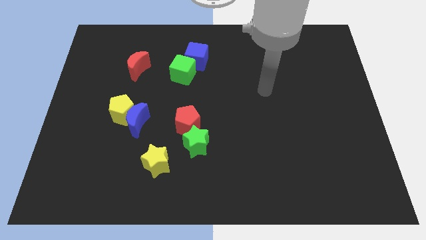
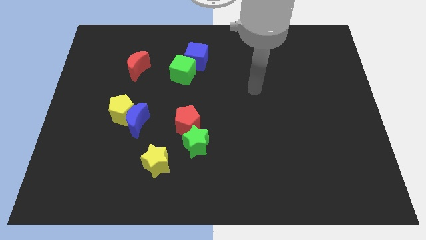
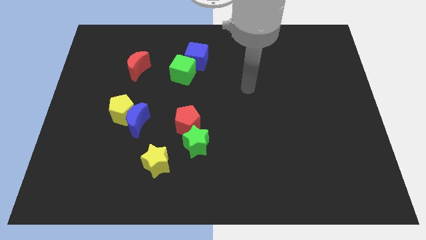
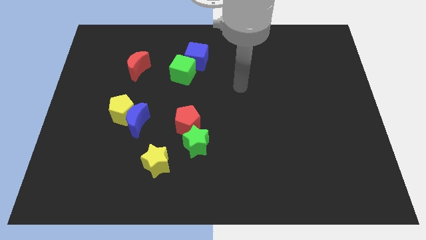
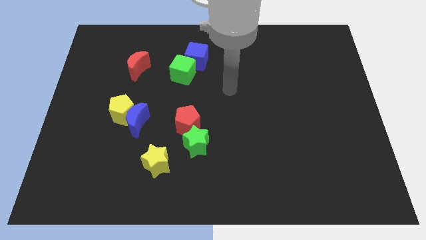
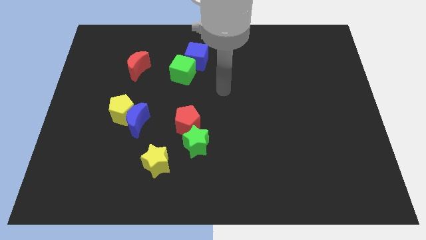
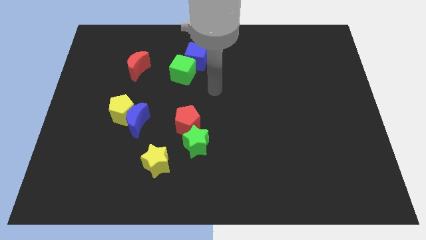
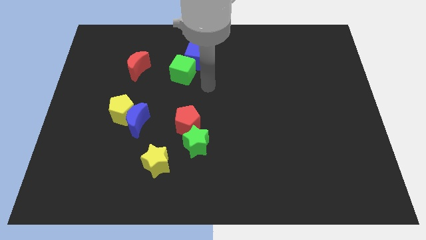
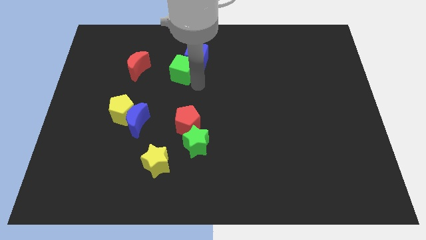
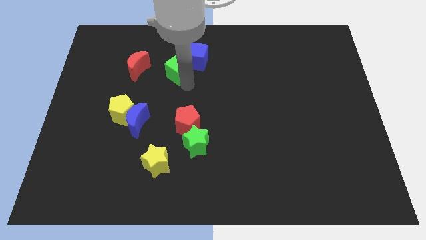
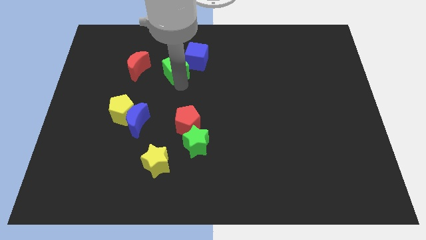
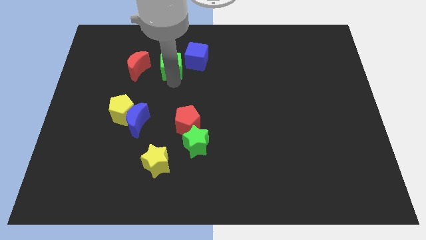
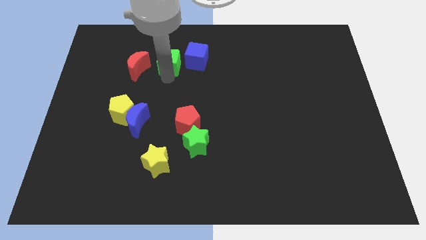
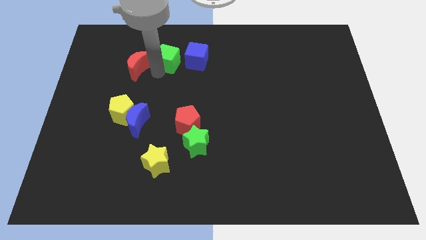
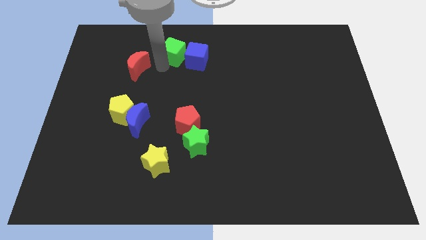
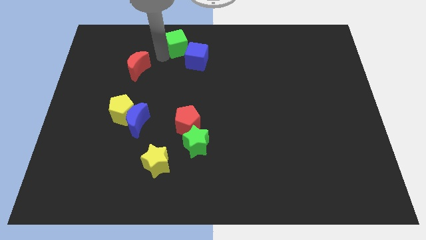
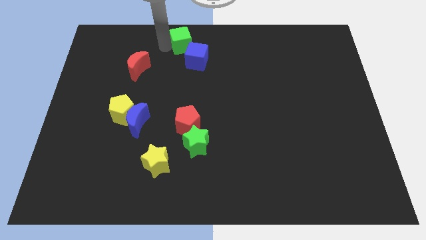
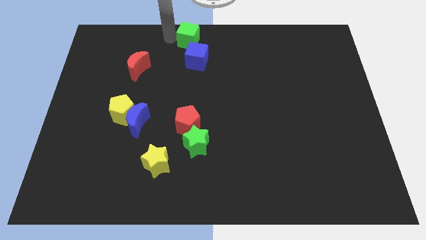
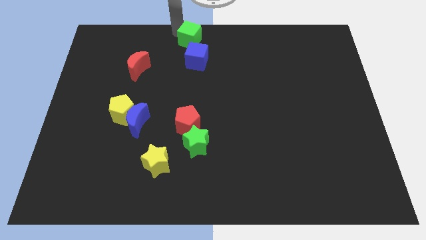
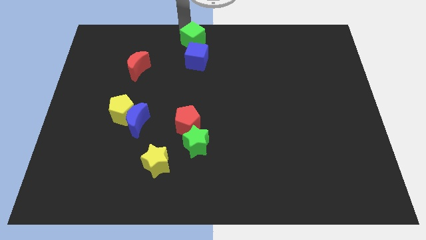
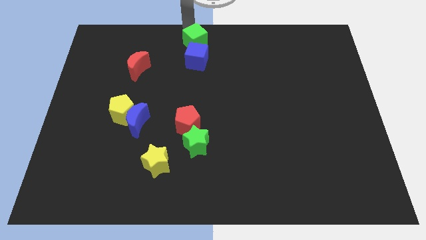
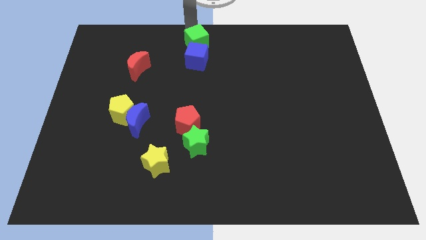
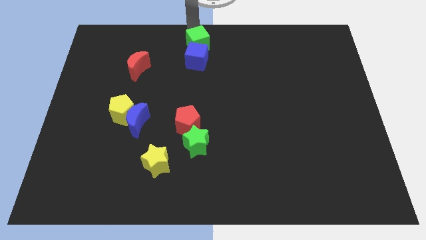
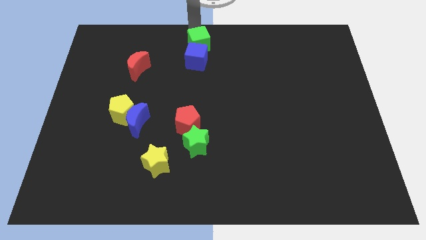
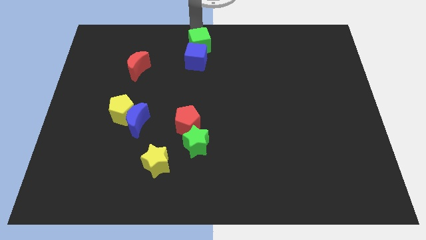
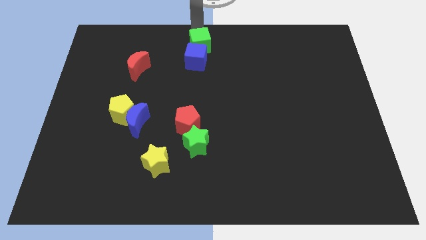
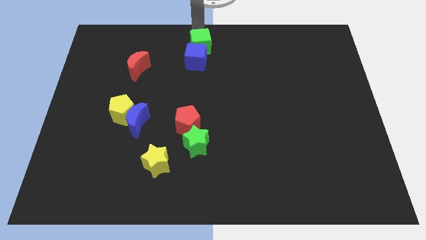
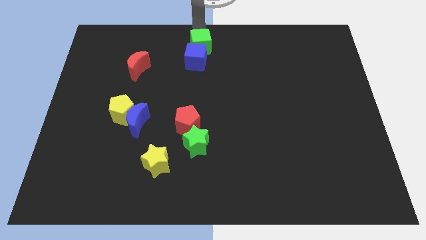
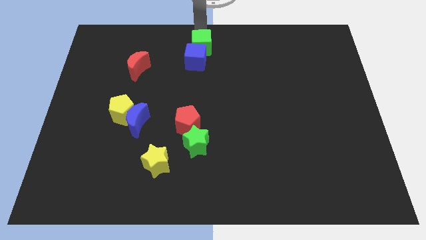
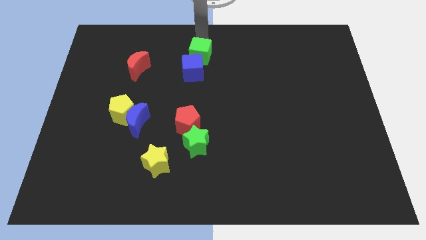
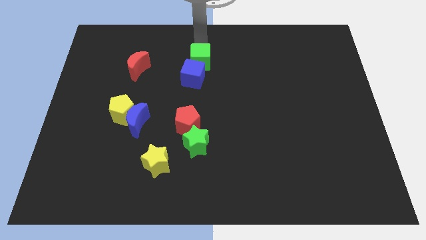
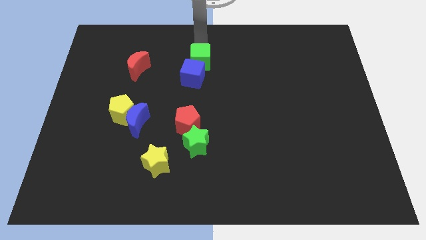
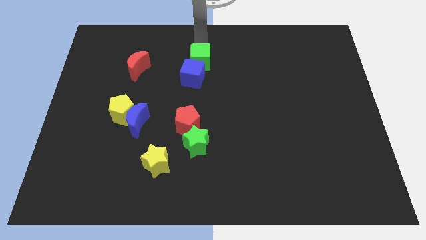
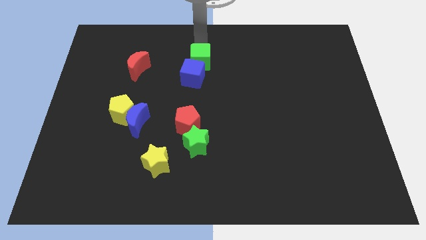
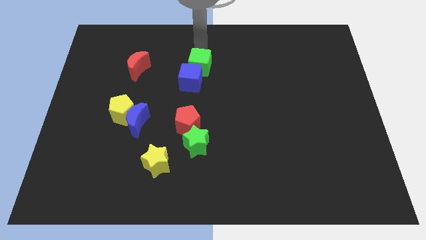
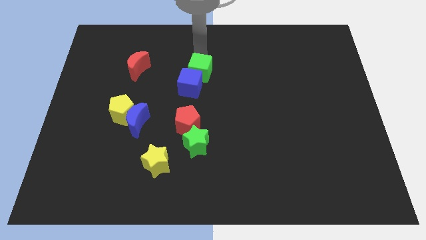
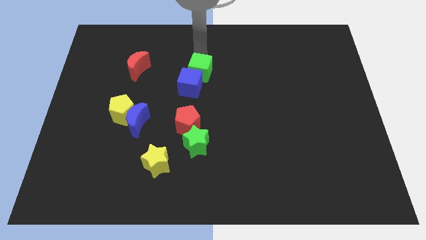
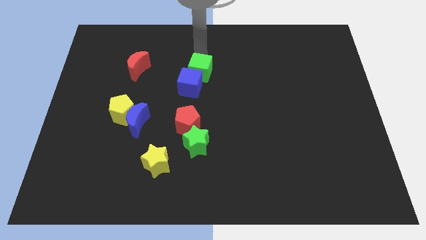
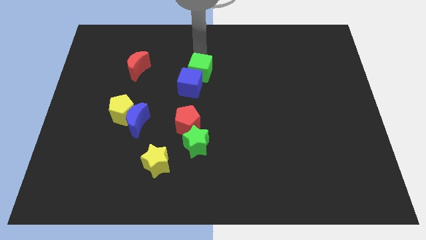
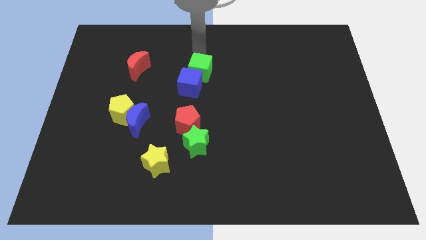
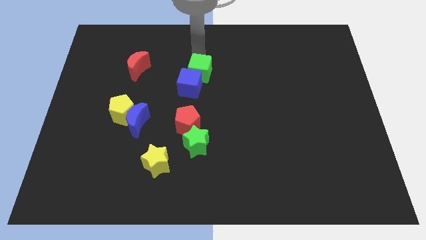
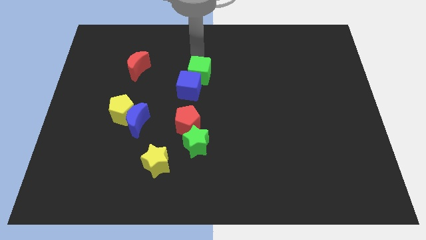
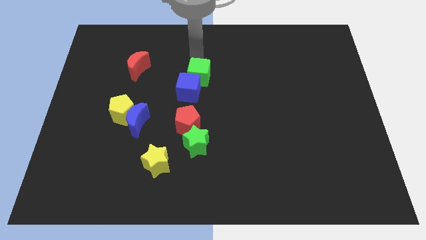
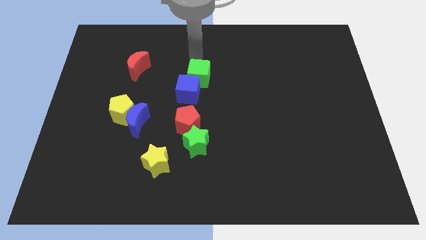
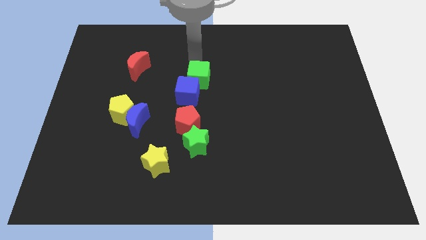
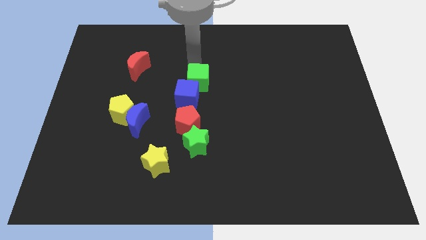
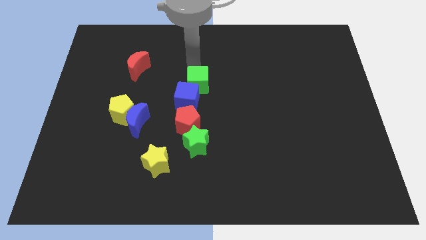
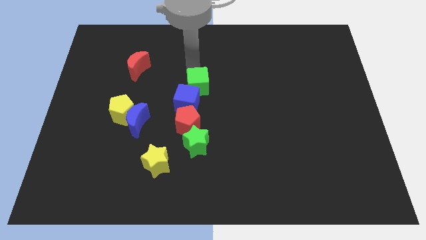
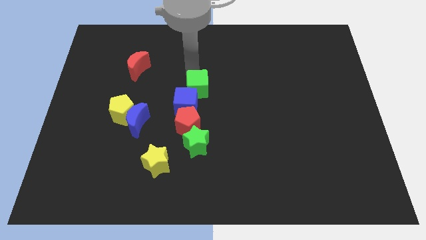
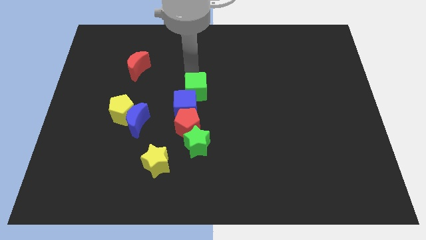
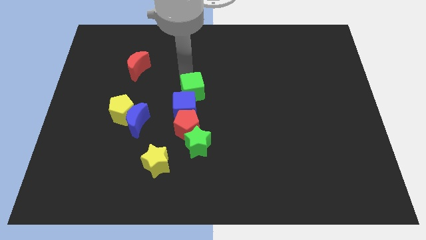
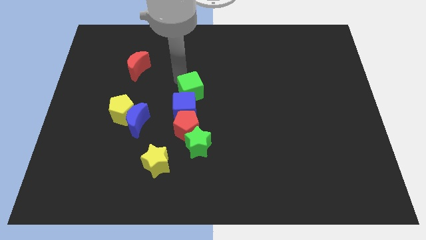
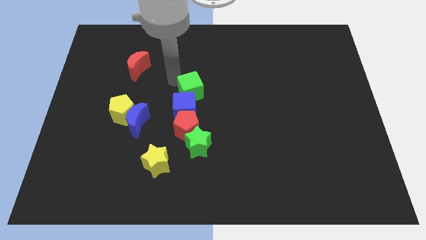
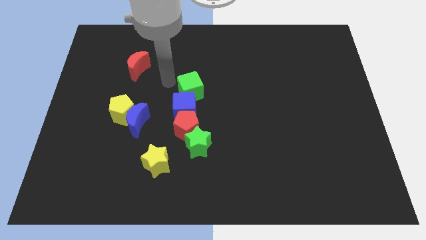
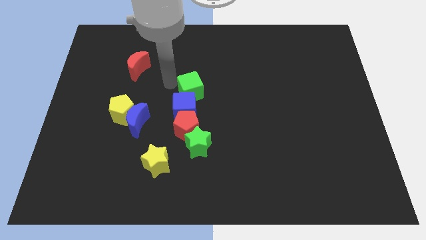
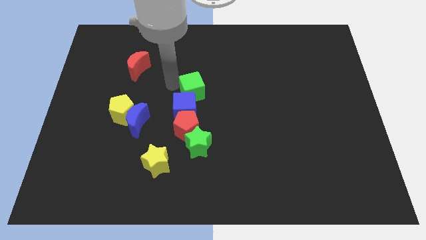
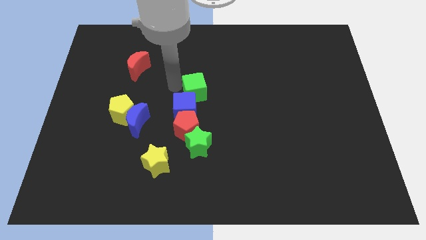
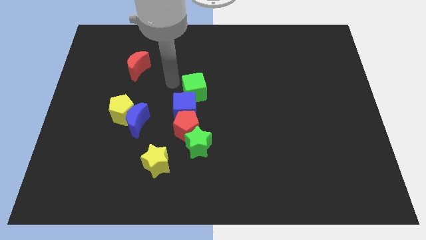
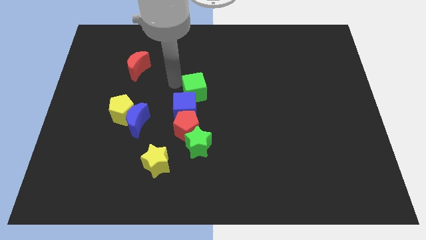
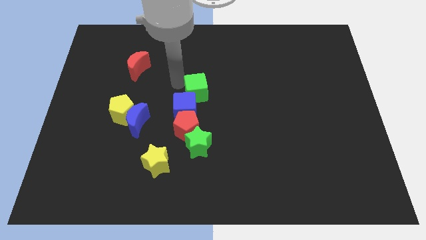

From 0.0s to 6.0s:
slightly slide the green cube down and right

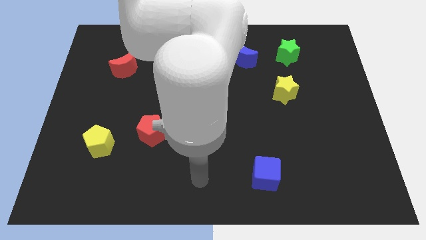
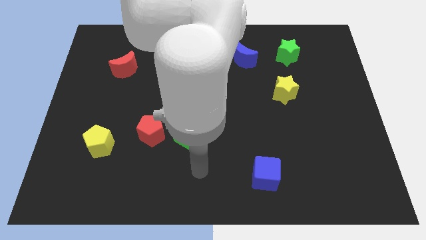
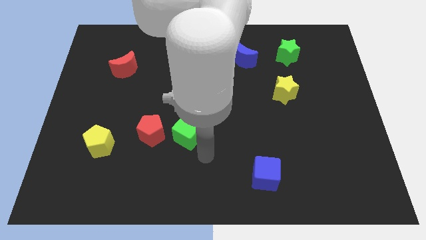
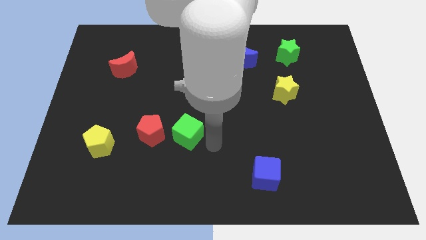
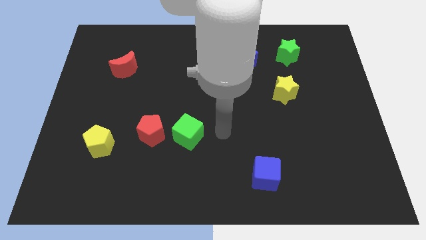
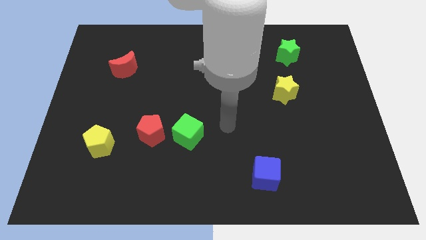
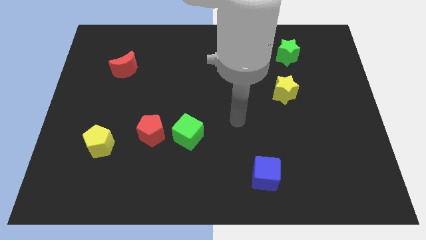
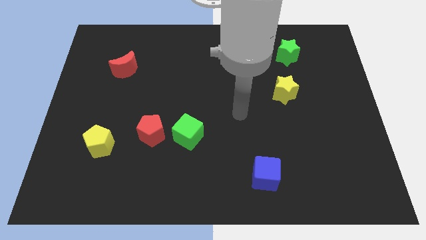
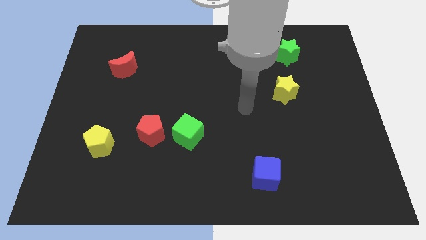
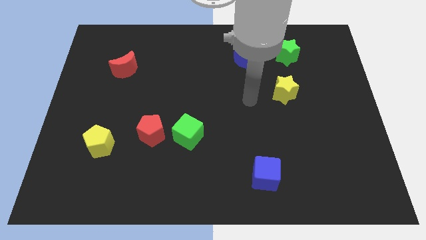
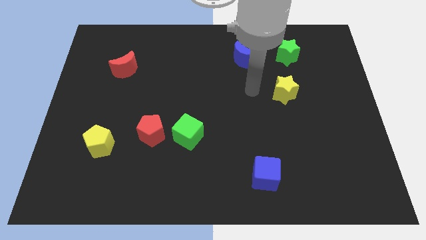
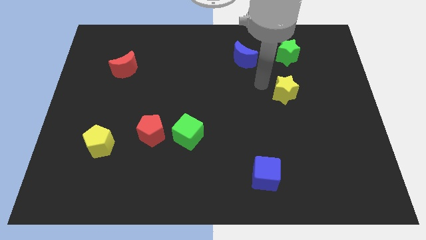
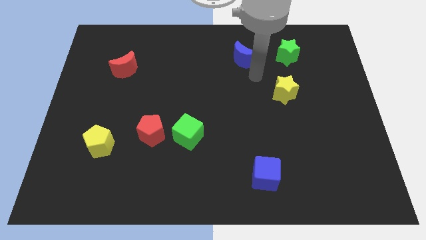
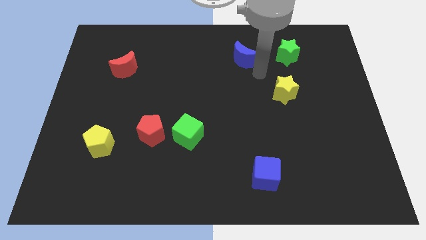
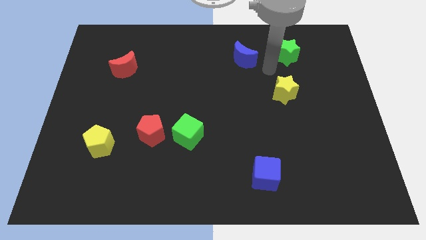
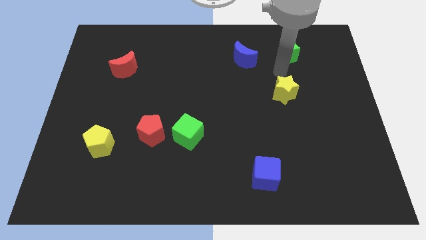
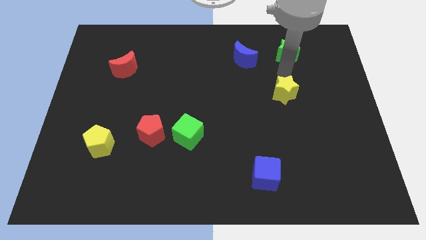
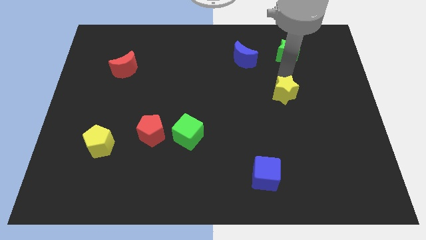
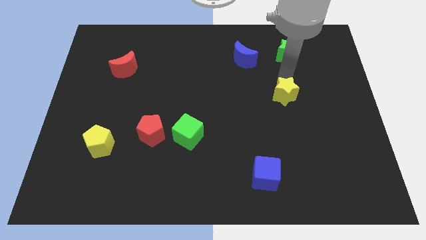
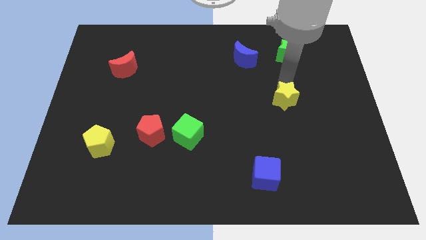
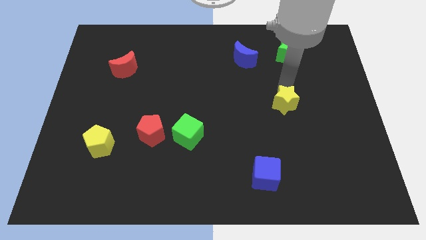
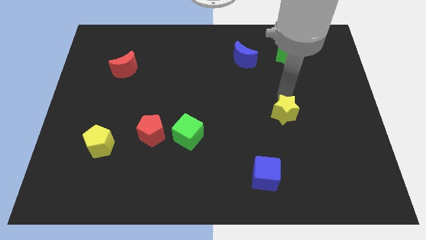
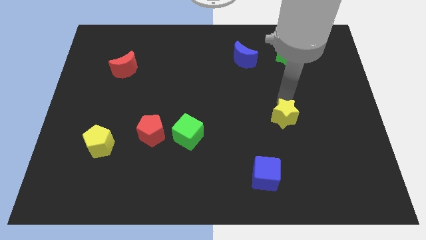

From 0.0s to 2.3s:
move the yellow star somewhat downwards
